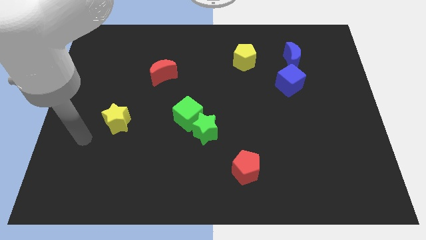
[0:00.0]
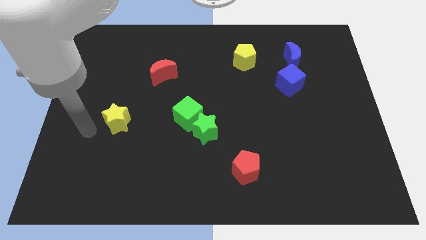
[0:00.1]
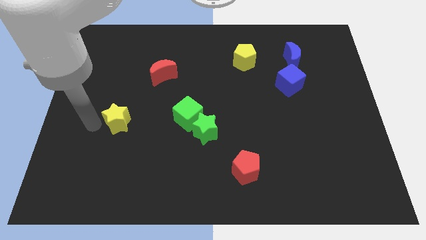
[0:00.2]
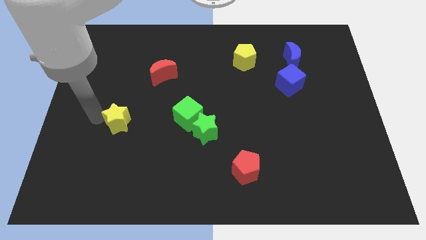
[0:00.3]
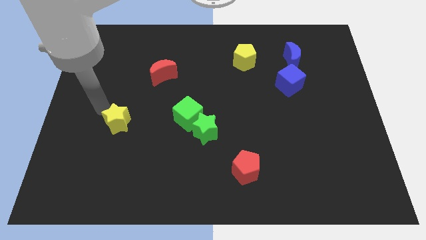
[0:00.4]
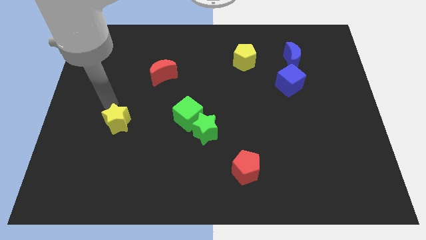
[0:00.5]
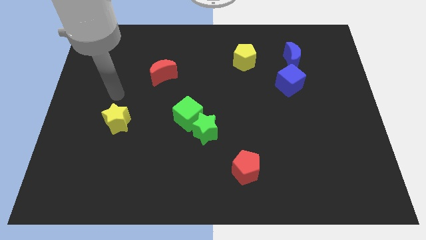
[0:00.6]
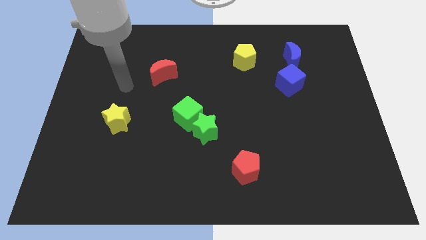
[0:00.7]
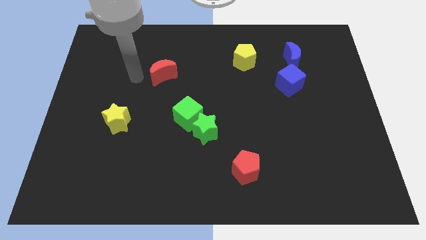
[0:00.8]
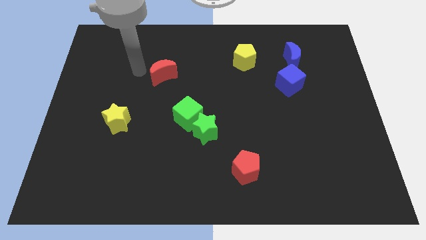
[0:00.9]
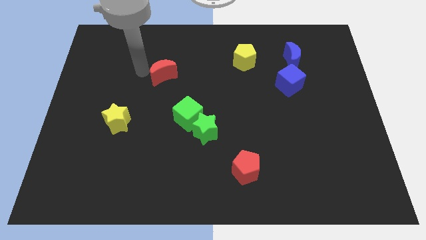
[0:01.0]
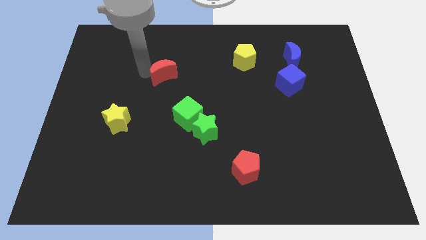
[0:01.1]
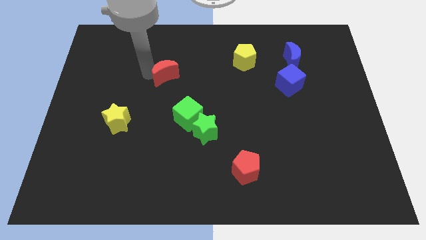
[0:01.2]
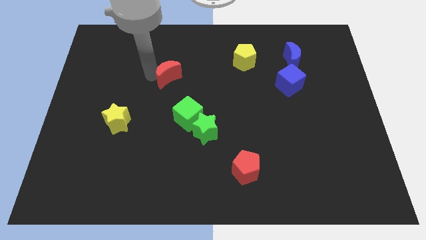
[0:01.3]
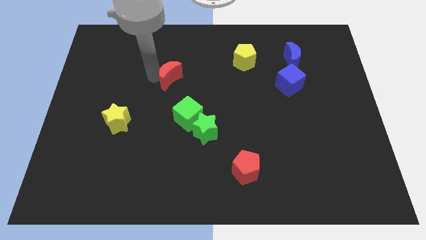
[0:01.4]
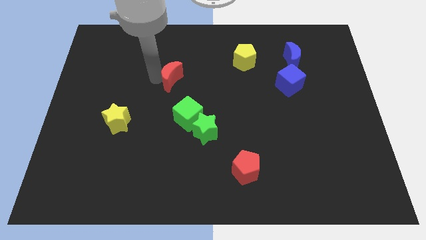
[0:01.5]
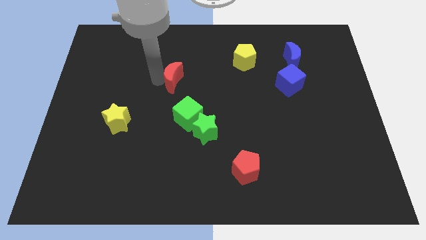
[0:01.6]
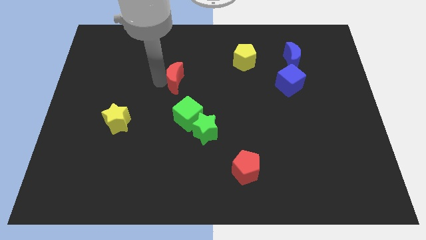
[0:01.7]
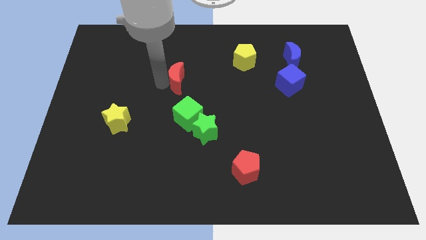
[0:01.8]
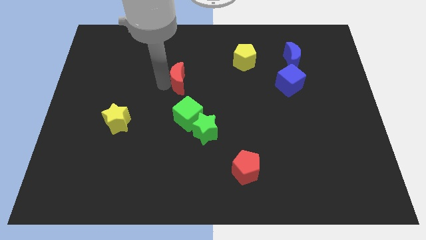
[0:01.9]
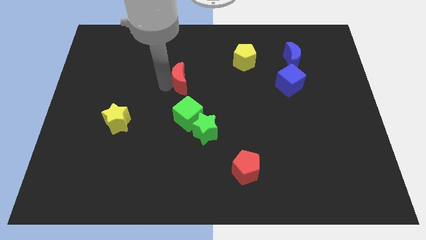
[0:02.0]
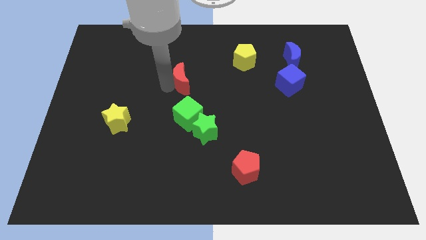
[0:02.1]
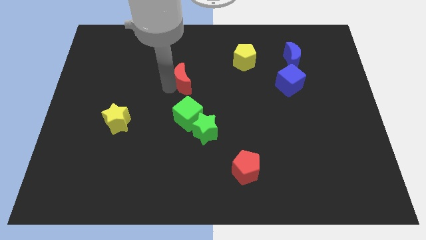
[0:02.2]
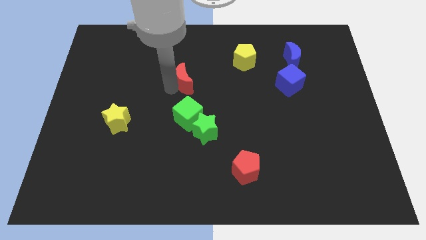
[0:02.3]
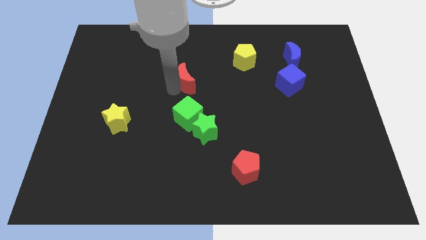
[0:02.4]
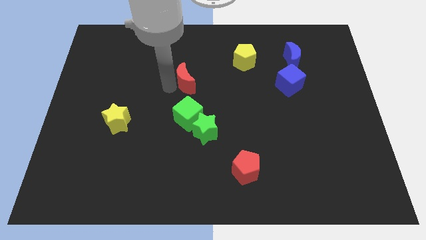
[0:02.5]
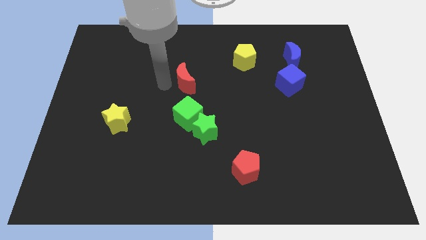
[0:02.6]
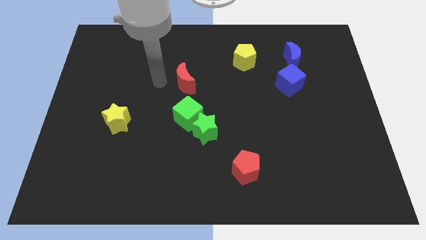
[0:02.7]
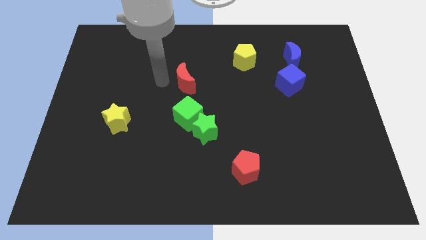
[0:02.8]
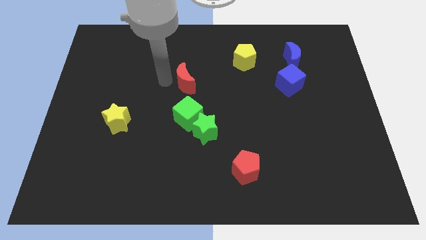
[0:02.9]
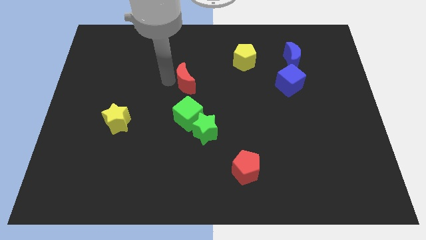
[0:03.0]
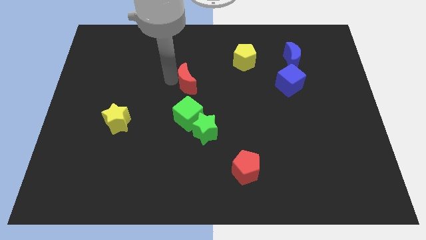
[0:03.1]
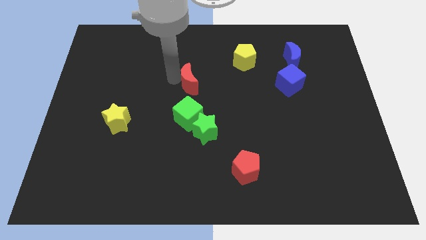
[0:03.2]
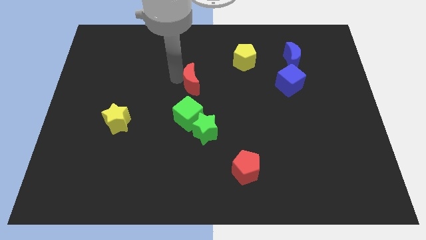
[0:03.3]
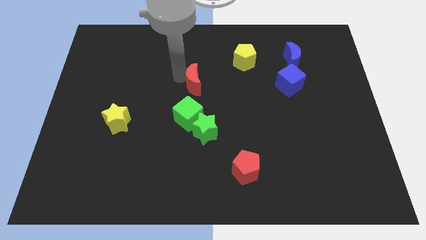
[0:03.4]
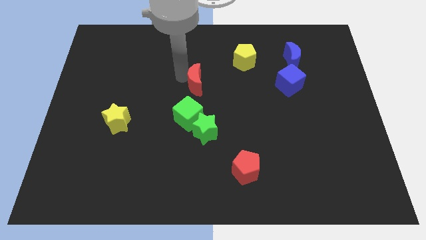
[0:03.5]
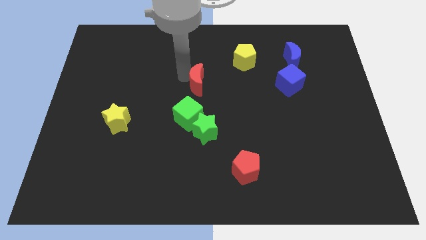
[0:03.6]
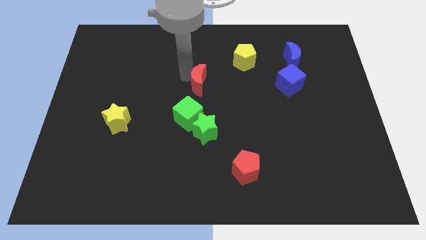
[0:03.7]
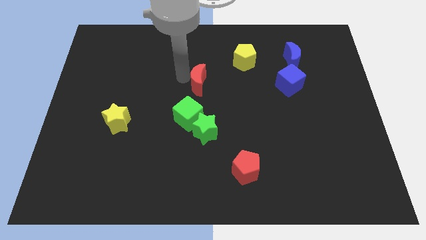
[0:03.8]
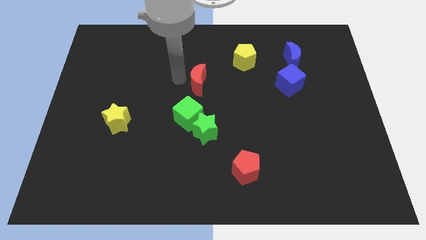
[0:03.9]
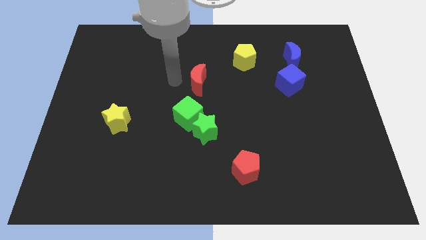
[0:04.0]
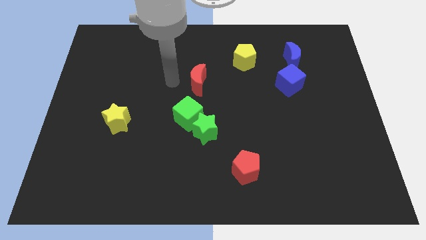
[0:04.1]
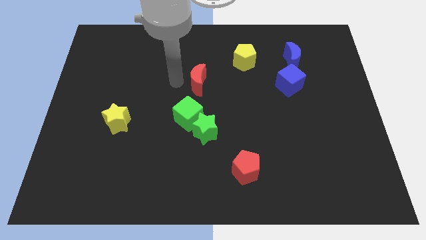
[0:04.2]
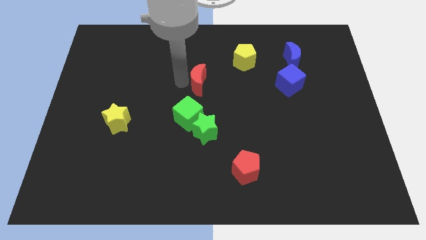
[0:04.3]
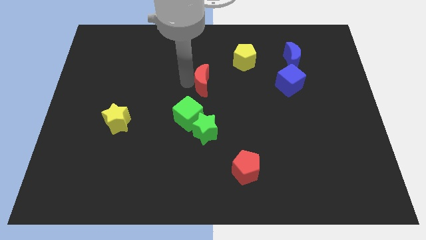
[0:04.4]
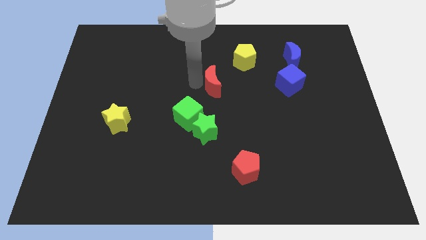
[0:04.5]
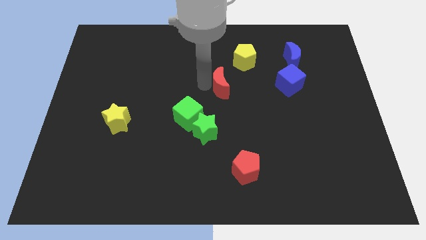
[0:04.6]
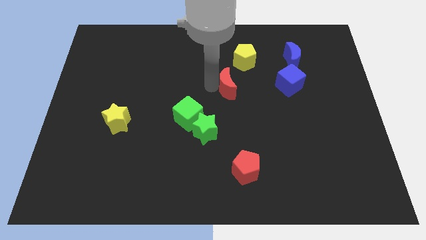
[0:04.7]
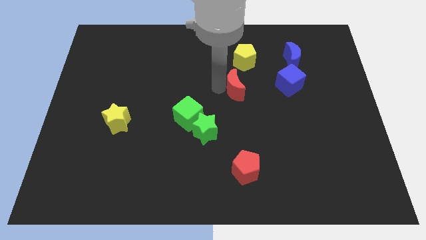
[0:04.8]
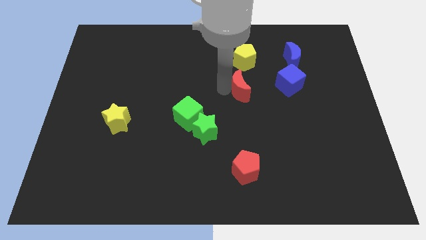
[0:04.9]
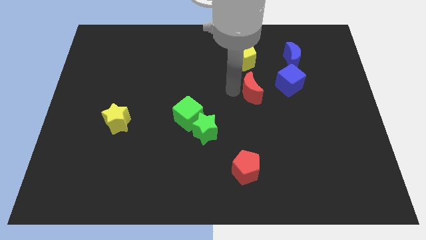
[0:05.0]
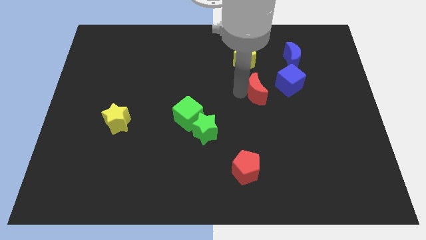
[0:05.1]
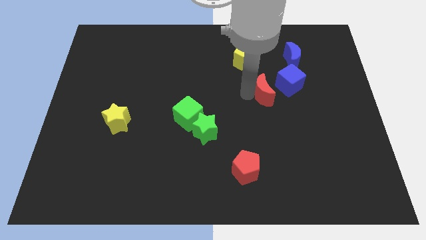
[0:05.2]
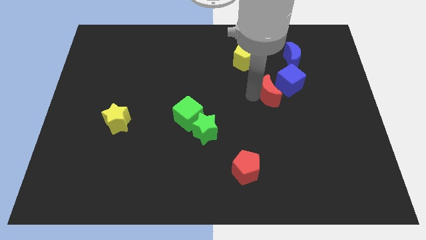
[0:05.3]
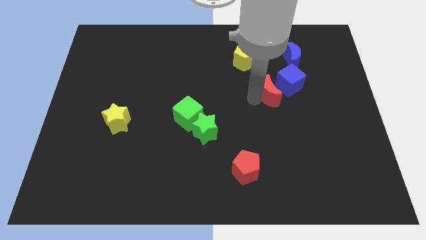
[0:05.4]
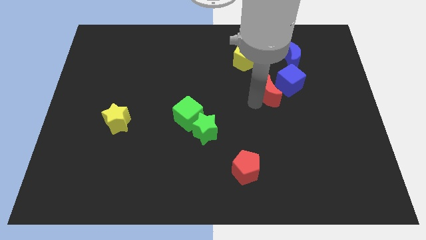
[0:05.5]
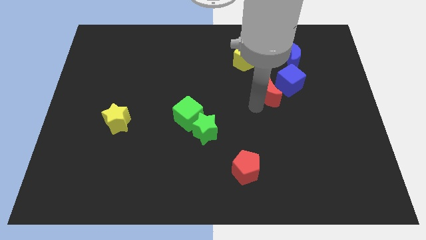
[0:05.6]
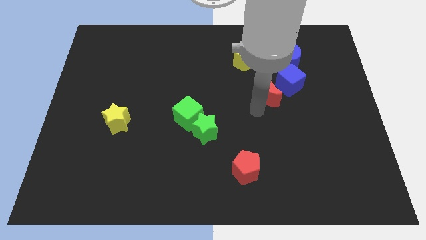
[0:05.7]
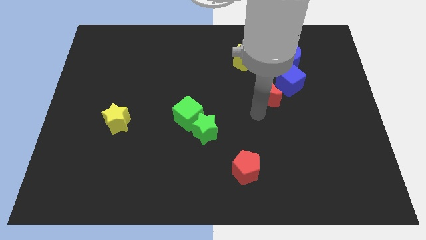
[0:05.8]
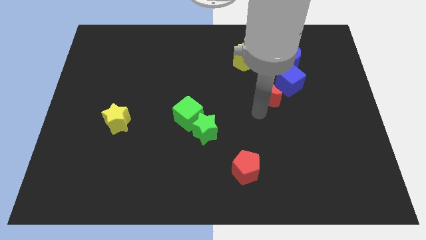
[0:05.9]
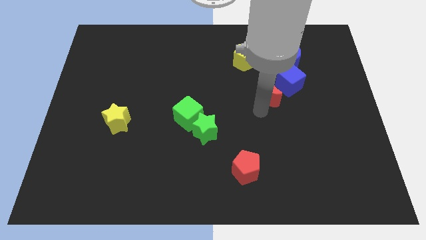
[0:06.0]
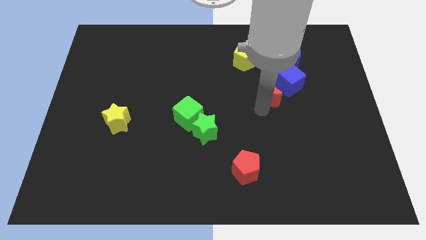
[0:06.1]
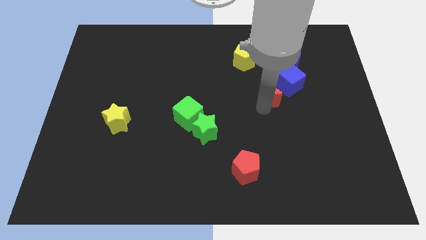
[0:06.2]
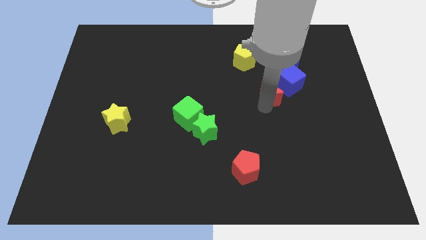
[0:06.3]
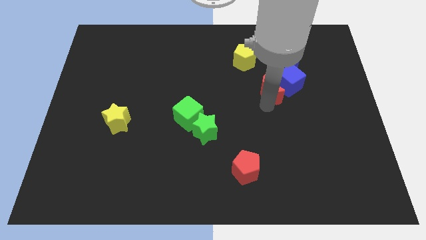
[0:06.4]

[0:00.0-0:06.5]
move the red moon next to the blue cube
